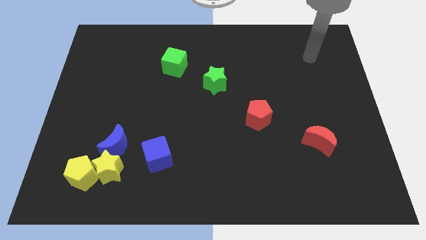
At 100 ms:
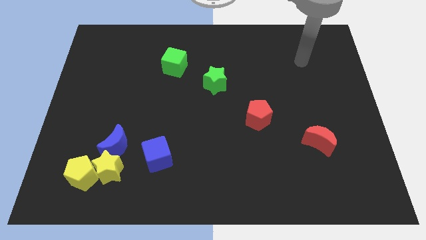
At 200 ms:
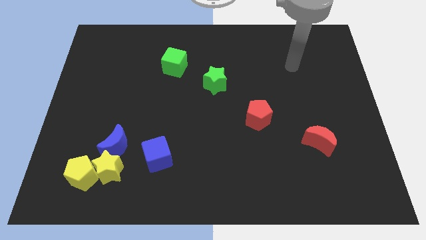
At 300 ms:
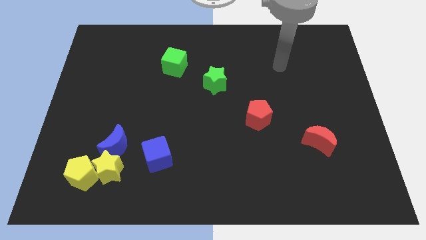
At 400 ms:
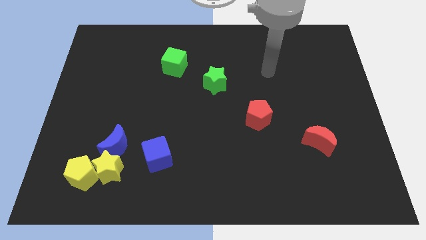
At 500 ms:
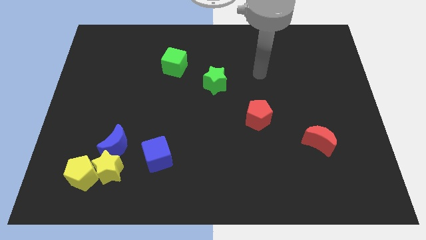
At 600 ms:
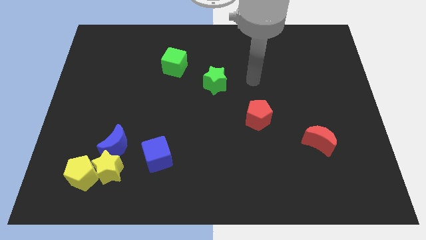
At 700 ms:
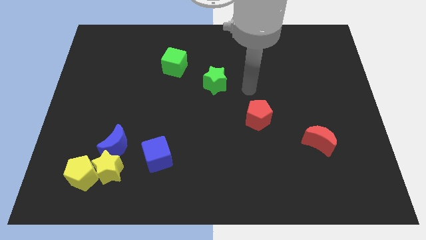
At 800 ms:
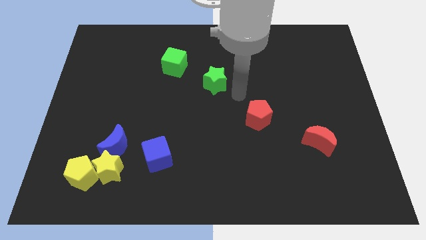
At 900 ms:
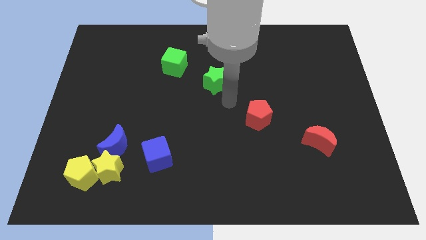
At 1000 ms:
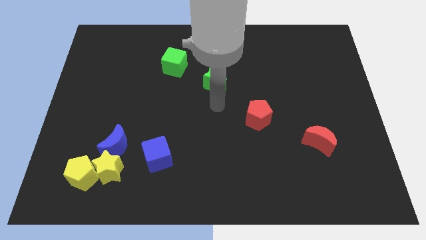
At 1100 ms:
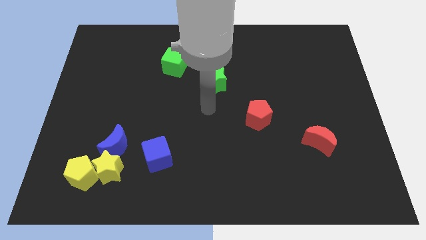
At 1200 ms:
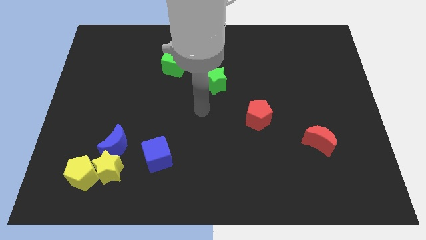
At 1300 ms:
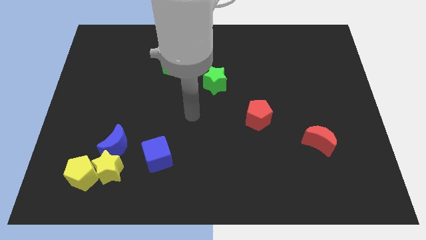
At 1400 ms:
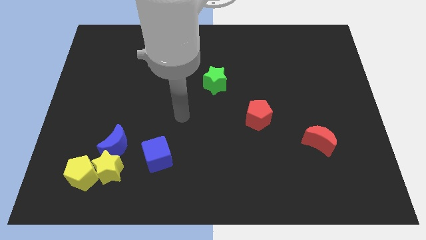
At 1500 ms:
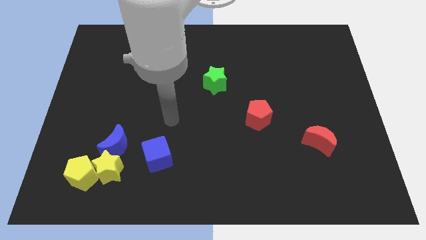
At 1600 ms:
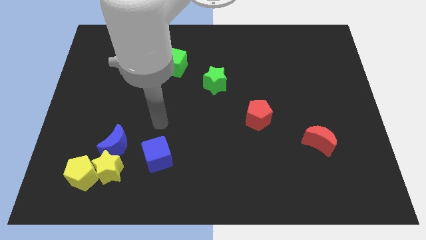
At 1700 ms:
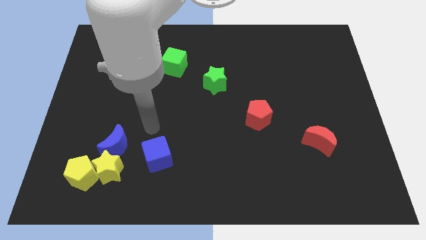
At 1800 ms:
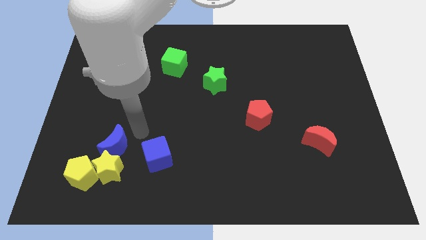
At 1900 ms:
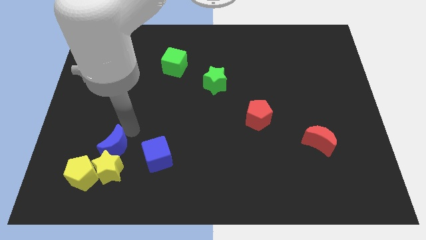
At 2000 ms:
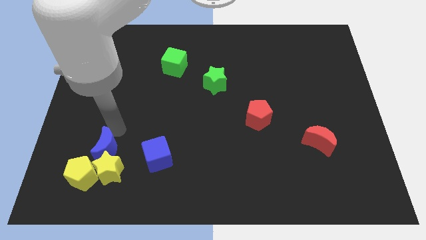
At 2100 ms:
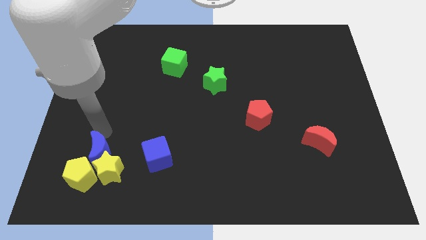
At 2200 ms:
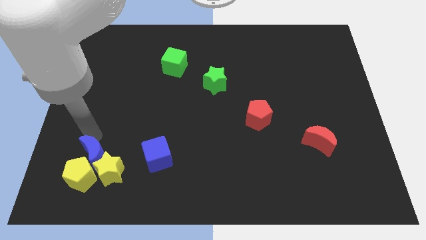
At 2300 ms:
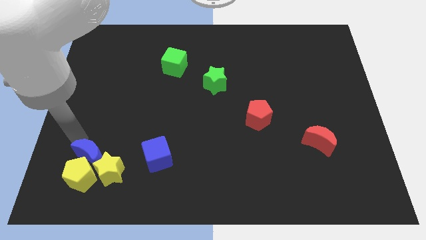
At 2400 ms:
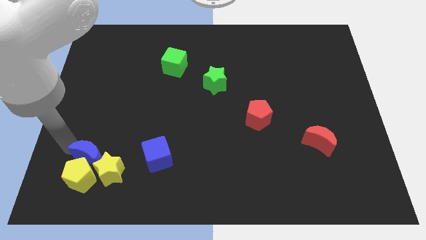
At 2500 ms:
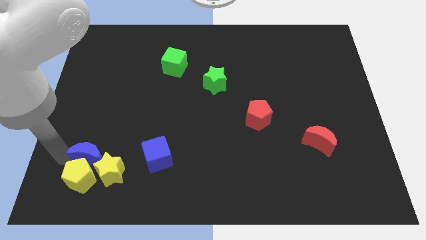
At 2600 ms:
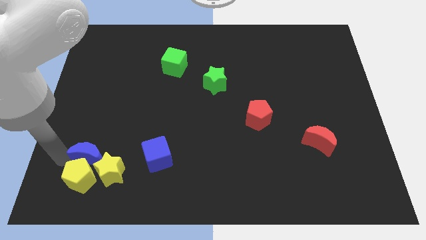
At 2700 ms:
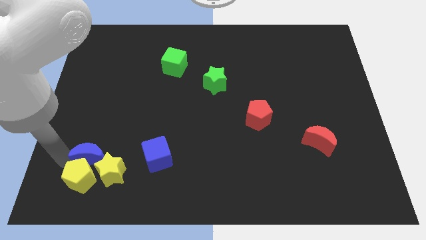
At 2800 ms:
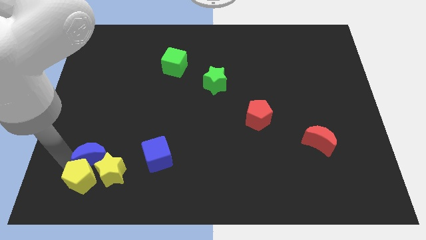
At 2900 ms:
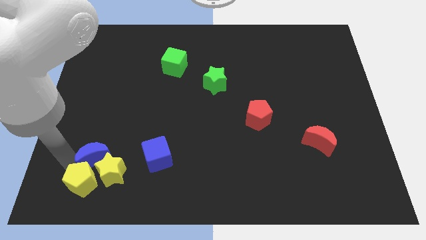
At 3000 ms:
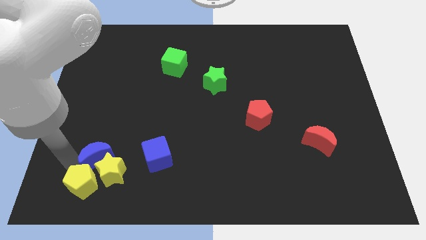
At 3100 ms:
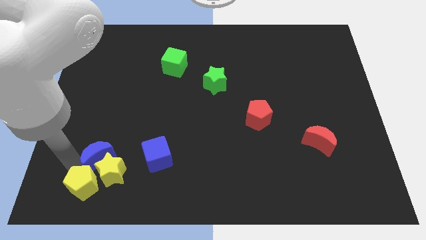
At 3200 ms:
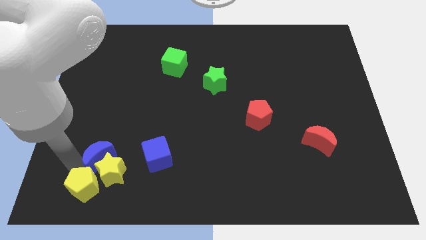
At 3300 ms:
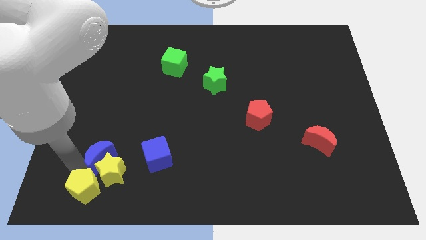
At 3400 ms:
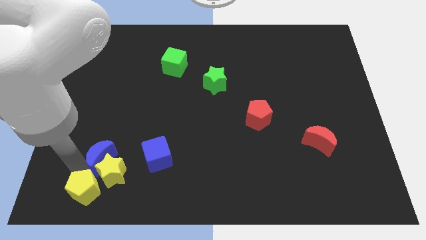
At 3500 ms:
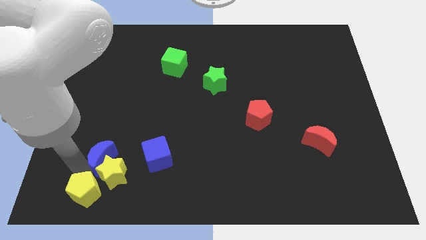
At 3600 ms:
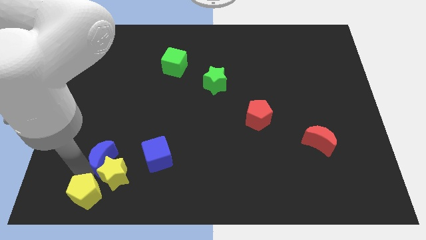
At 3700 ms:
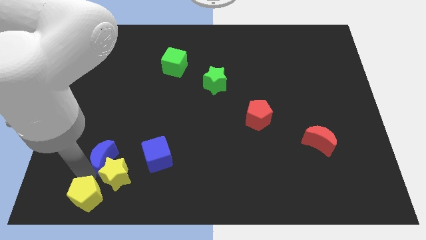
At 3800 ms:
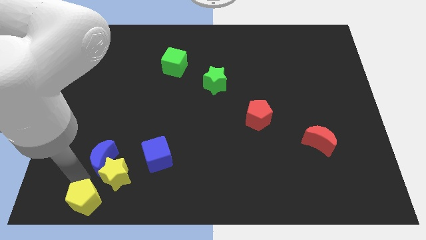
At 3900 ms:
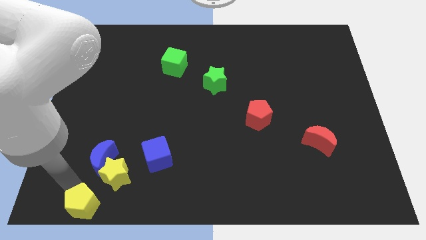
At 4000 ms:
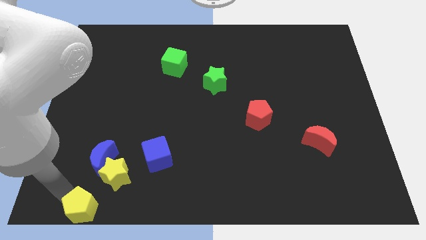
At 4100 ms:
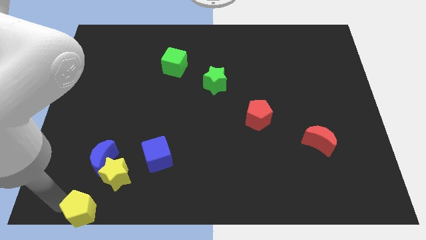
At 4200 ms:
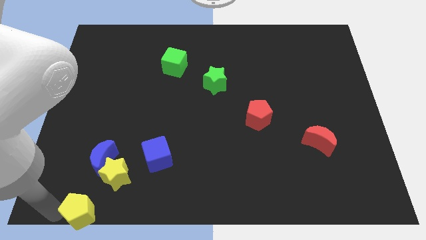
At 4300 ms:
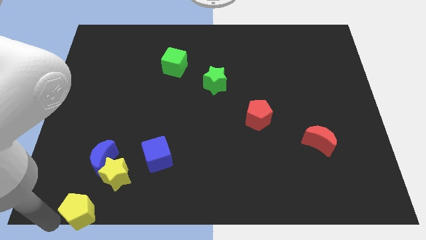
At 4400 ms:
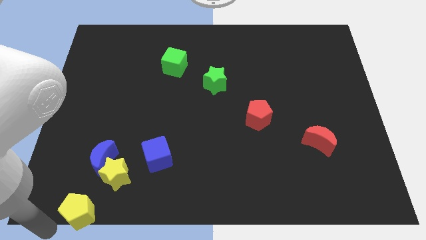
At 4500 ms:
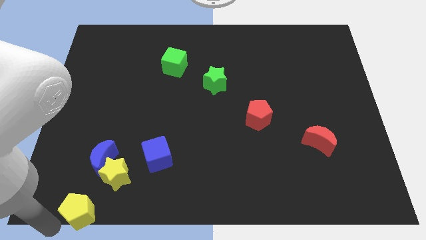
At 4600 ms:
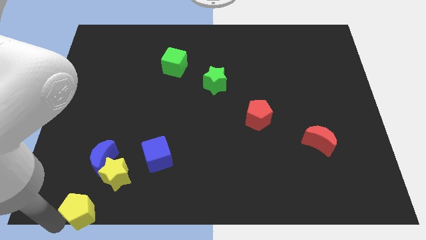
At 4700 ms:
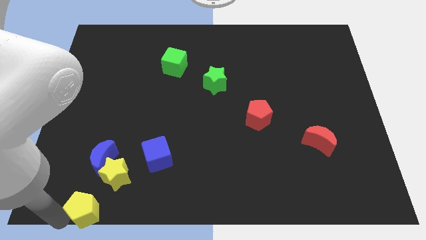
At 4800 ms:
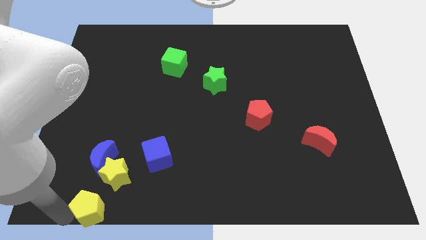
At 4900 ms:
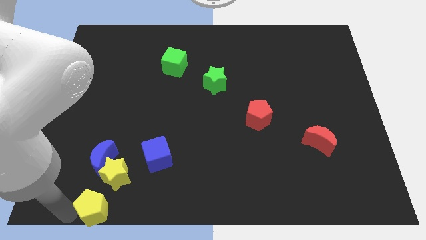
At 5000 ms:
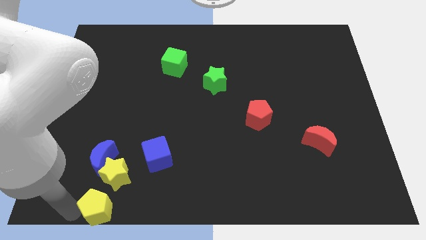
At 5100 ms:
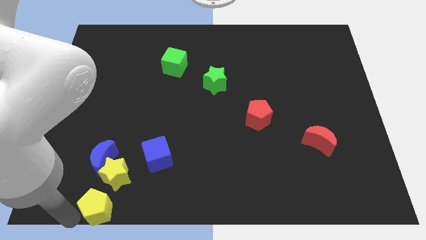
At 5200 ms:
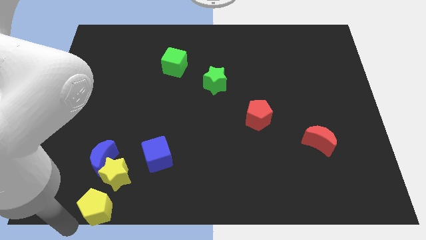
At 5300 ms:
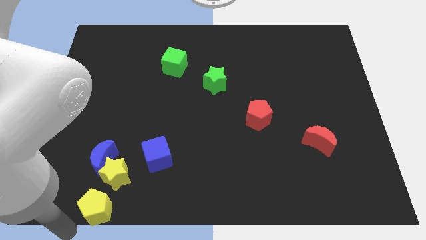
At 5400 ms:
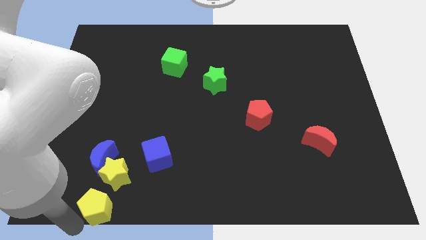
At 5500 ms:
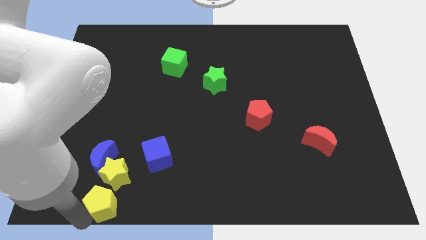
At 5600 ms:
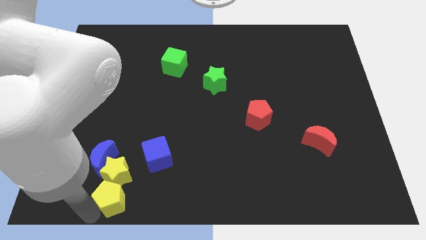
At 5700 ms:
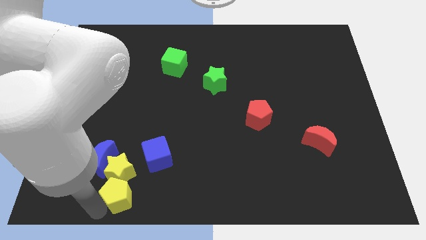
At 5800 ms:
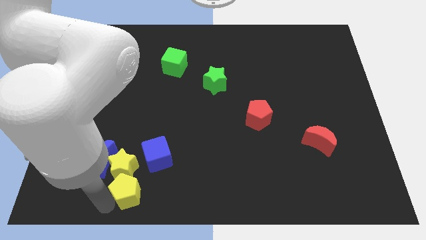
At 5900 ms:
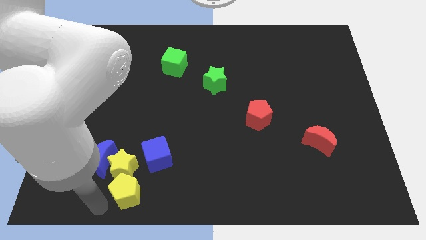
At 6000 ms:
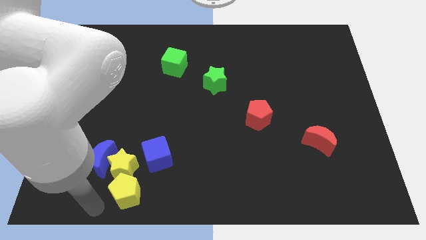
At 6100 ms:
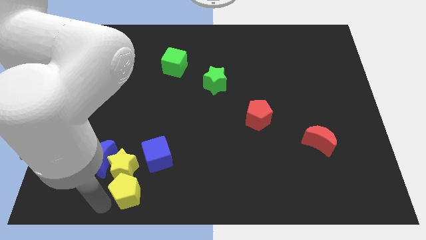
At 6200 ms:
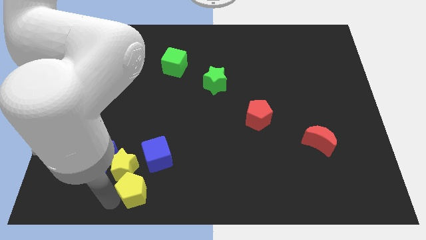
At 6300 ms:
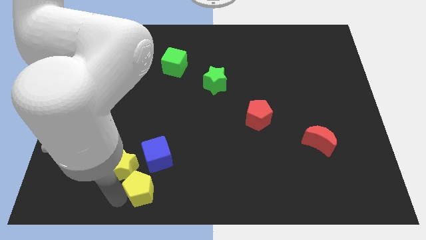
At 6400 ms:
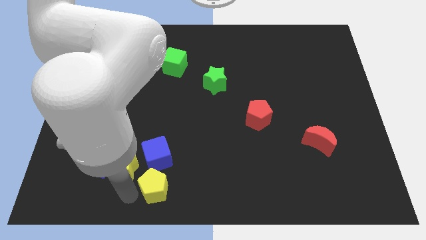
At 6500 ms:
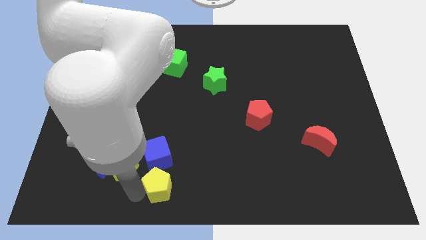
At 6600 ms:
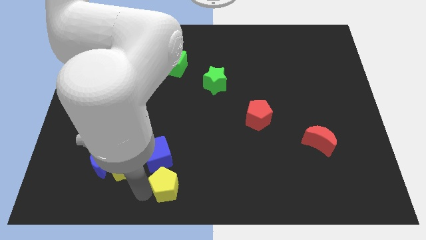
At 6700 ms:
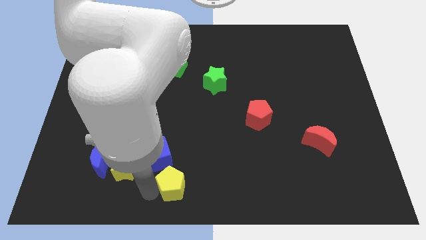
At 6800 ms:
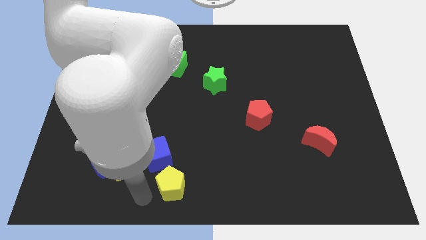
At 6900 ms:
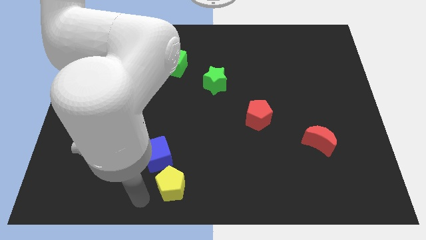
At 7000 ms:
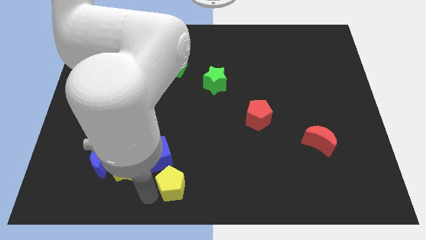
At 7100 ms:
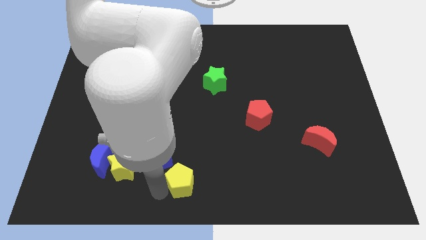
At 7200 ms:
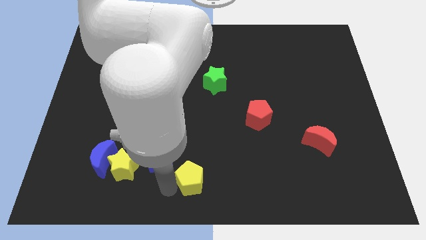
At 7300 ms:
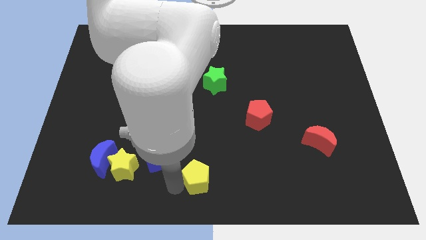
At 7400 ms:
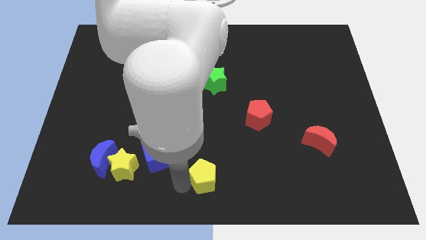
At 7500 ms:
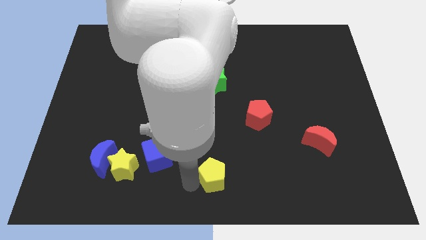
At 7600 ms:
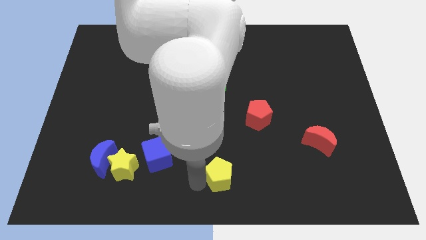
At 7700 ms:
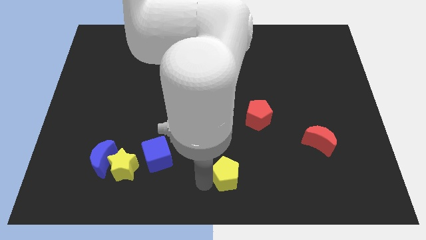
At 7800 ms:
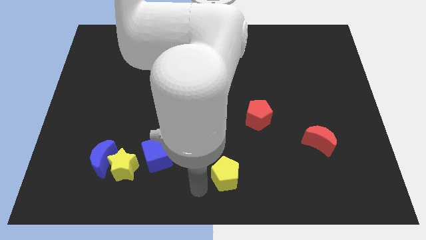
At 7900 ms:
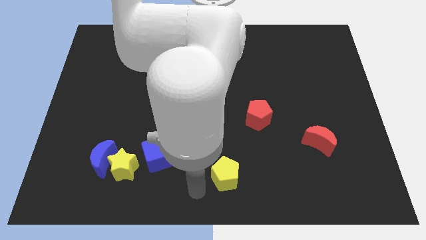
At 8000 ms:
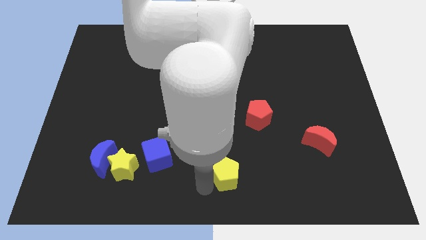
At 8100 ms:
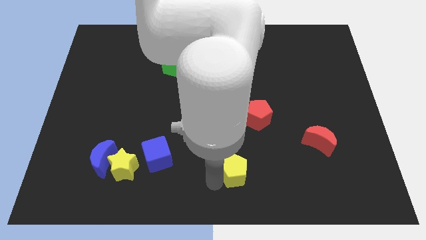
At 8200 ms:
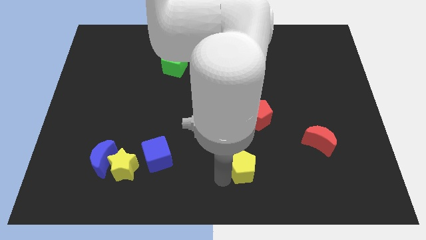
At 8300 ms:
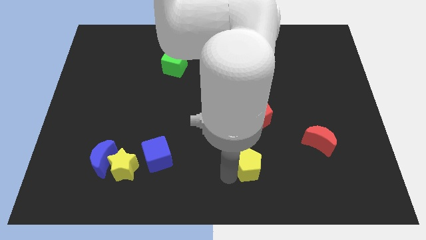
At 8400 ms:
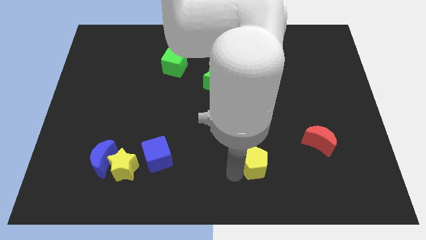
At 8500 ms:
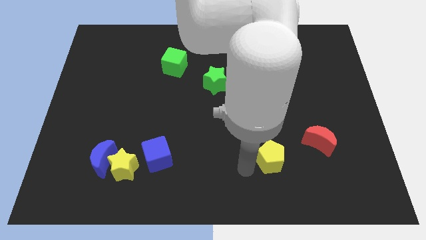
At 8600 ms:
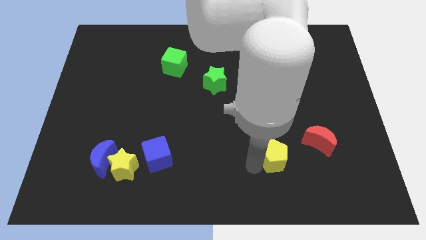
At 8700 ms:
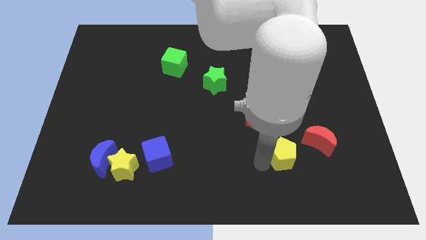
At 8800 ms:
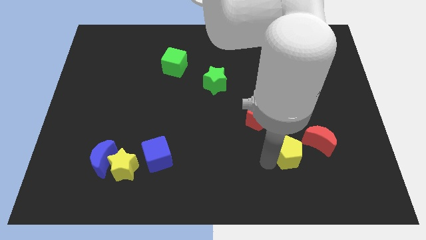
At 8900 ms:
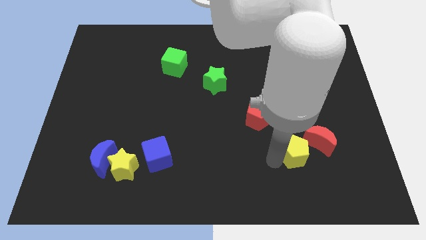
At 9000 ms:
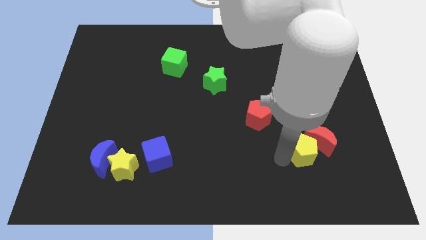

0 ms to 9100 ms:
slide the yellow pentagon to the red moon
